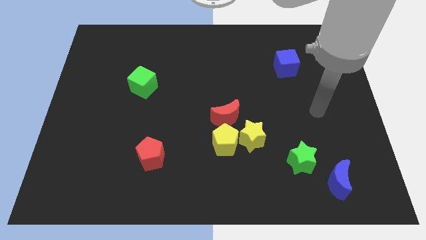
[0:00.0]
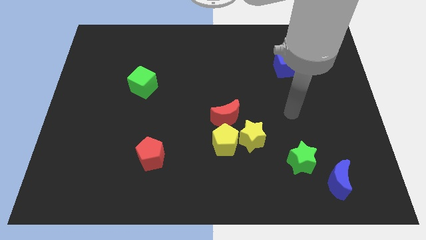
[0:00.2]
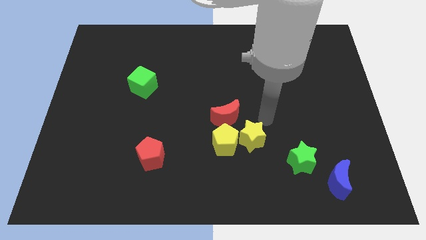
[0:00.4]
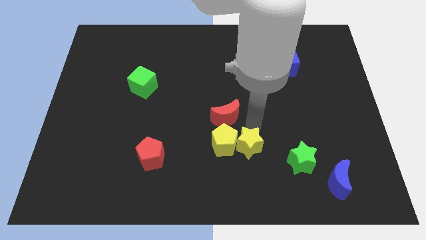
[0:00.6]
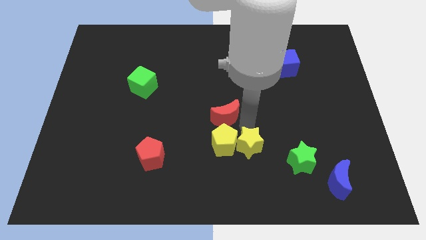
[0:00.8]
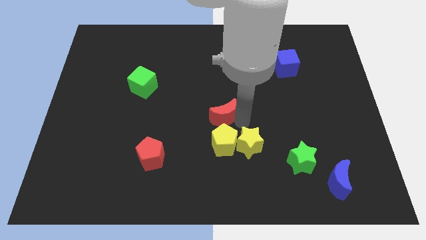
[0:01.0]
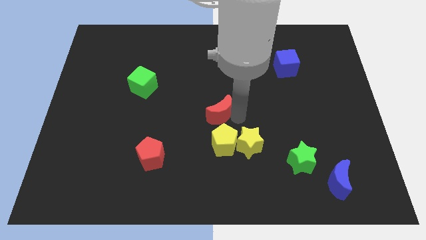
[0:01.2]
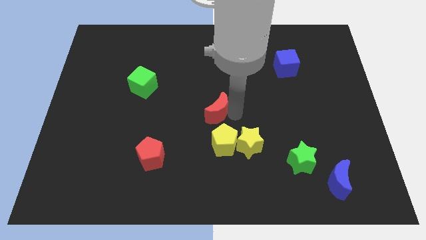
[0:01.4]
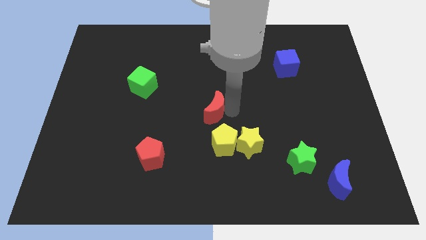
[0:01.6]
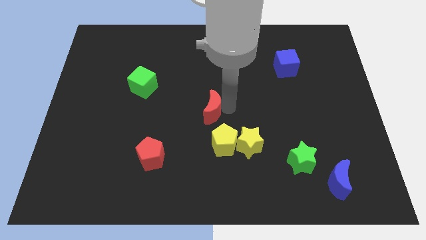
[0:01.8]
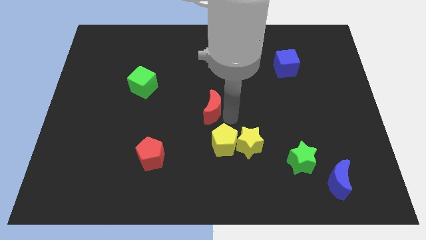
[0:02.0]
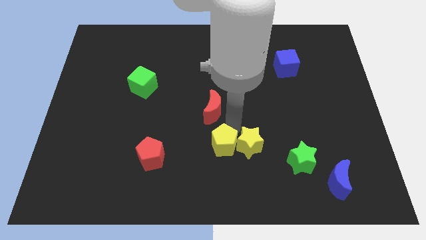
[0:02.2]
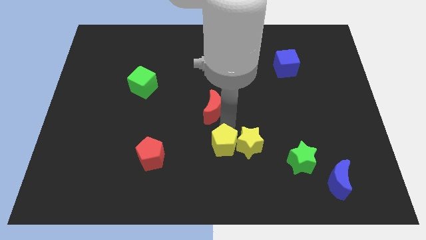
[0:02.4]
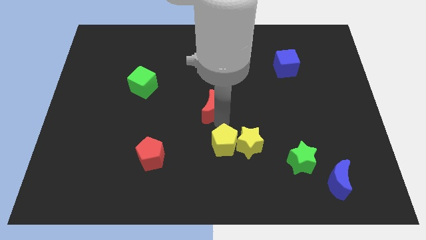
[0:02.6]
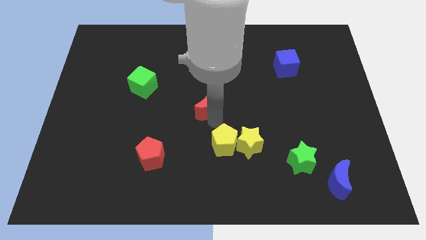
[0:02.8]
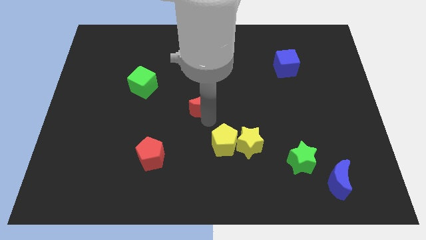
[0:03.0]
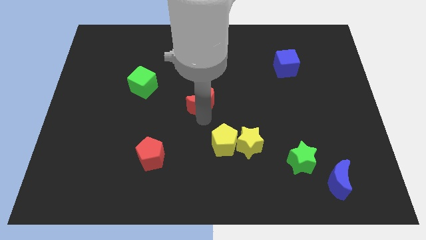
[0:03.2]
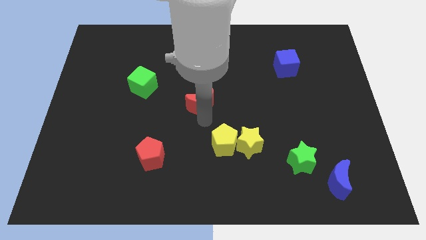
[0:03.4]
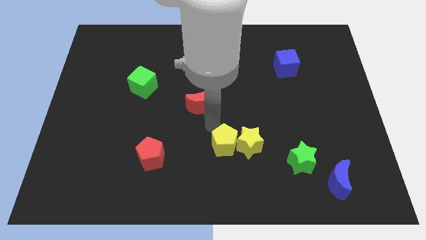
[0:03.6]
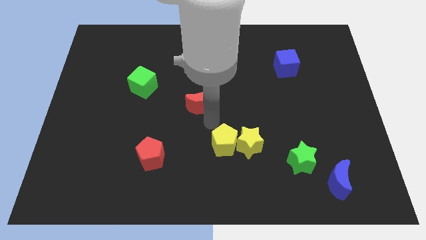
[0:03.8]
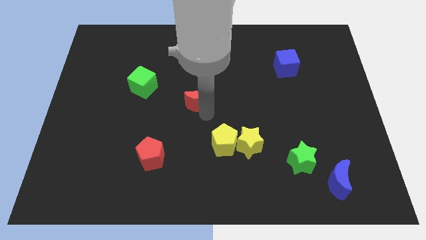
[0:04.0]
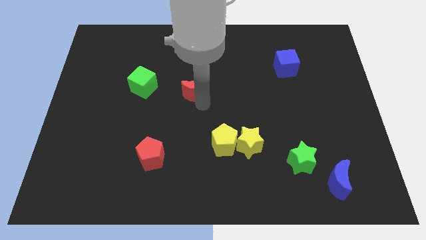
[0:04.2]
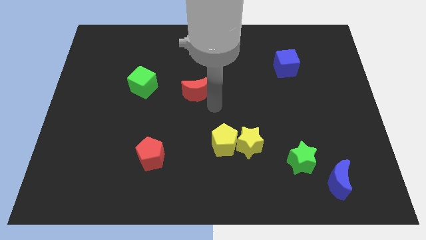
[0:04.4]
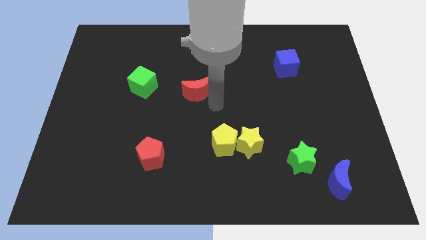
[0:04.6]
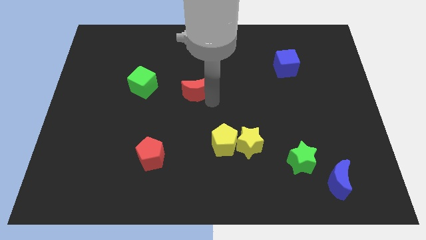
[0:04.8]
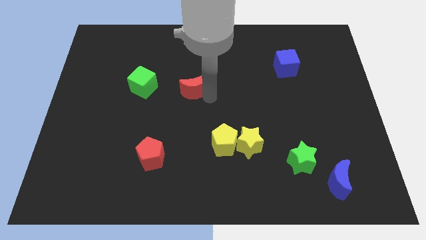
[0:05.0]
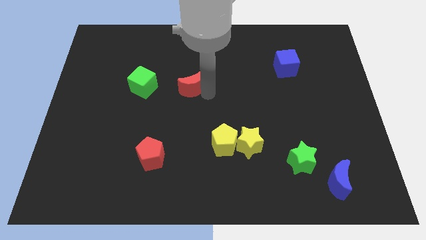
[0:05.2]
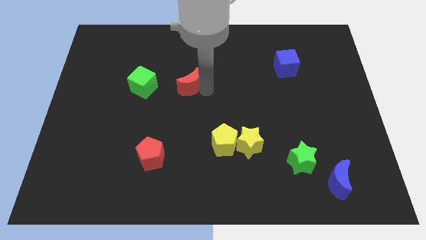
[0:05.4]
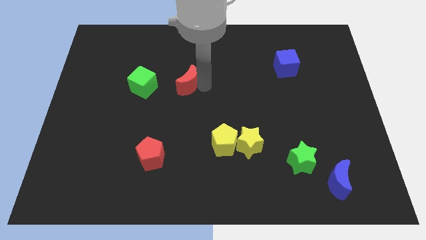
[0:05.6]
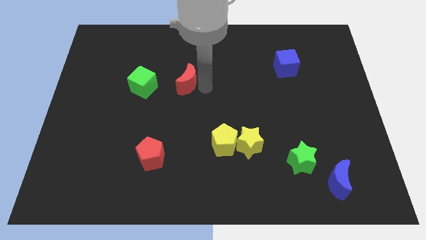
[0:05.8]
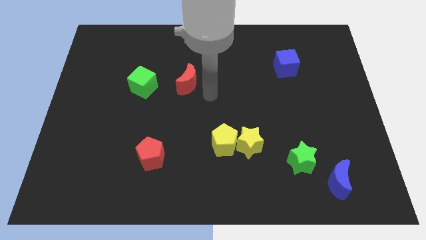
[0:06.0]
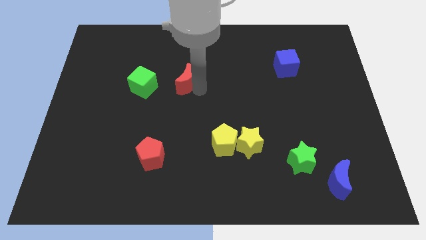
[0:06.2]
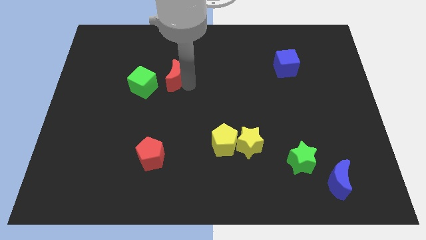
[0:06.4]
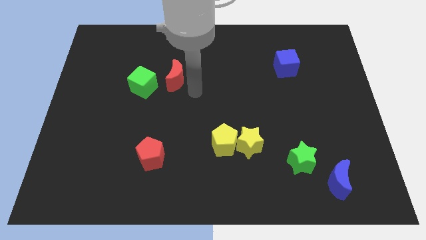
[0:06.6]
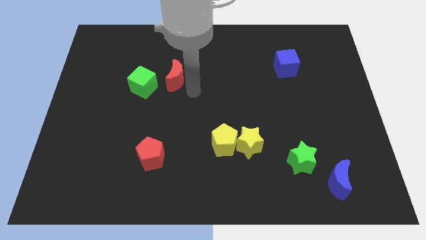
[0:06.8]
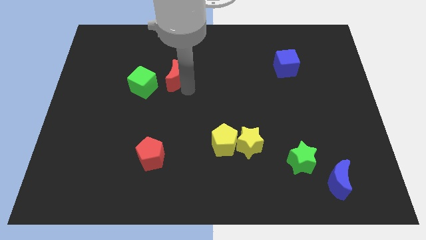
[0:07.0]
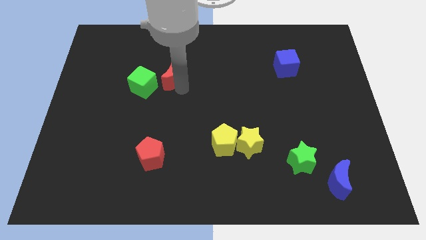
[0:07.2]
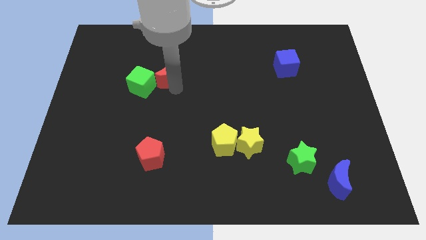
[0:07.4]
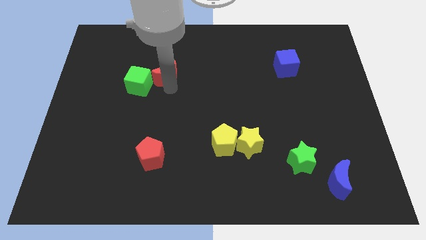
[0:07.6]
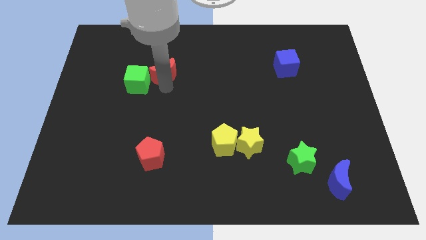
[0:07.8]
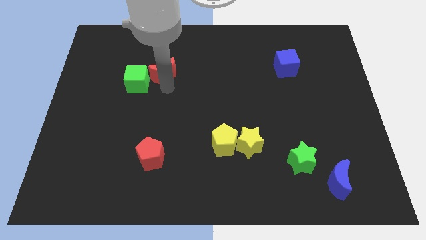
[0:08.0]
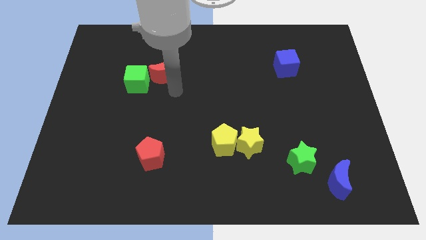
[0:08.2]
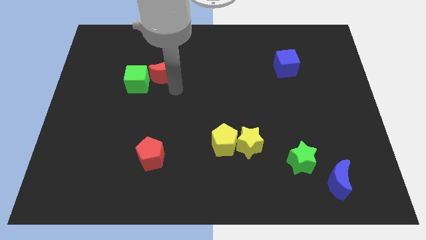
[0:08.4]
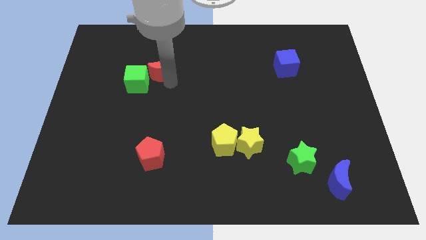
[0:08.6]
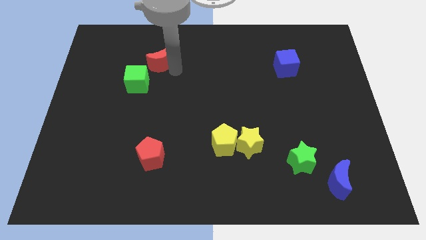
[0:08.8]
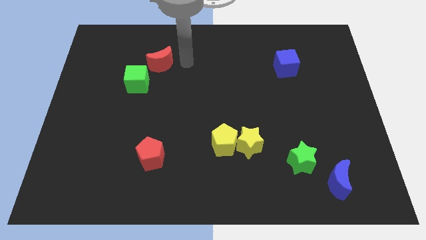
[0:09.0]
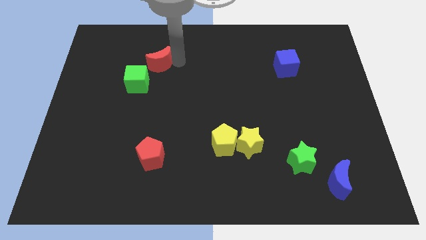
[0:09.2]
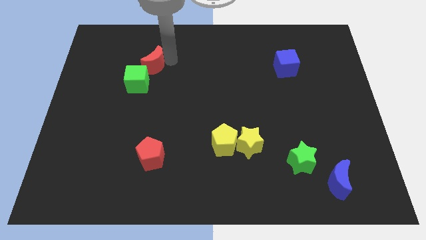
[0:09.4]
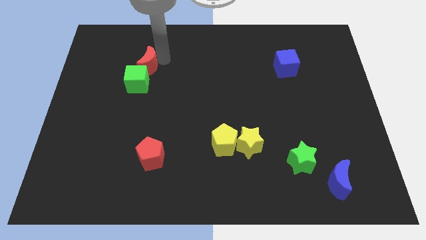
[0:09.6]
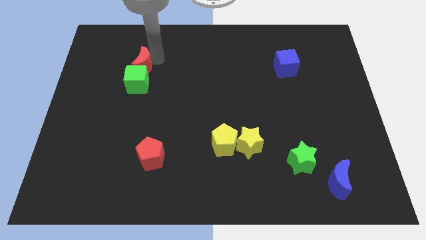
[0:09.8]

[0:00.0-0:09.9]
push the red moon to the top left of the green cube

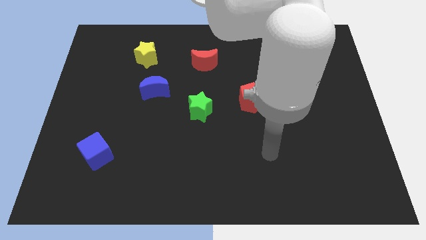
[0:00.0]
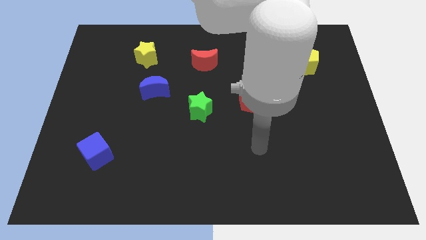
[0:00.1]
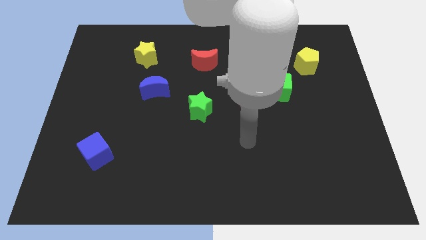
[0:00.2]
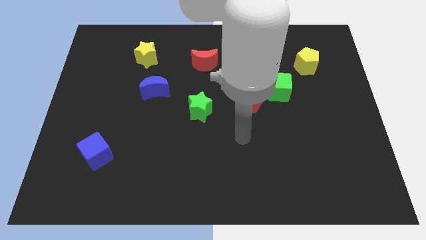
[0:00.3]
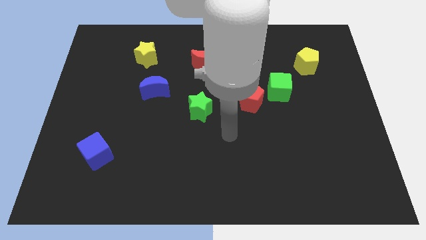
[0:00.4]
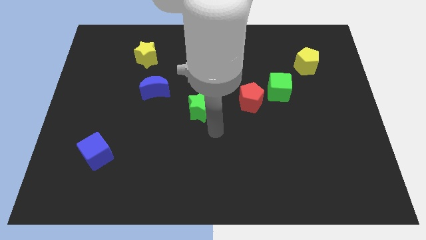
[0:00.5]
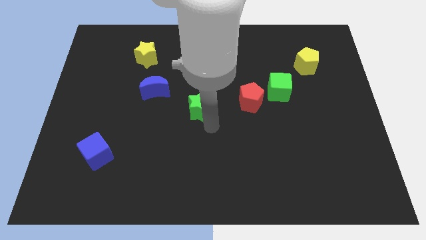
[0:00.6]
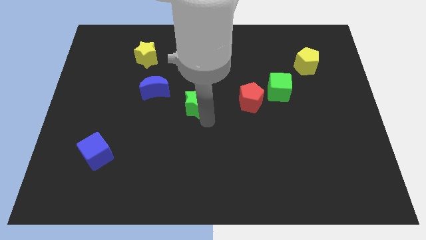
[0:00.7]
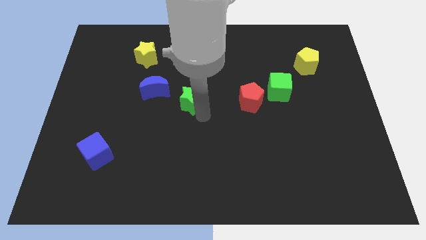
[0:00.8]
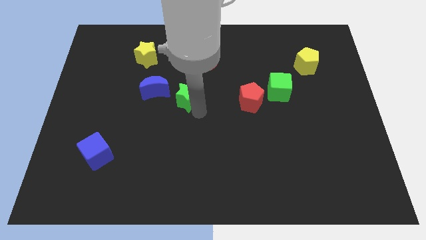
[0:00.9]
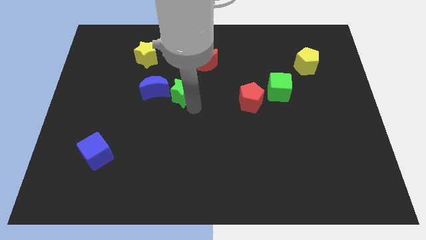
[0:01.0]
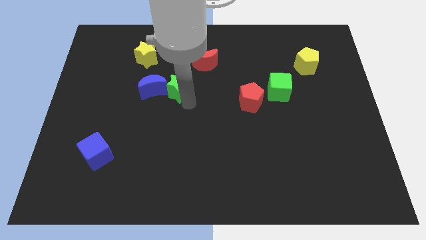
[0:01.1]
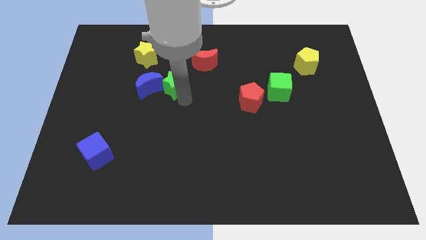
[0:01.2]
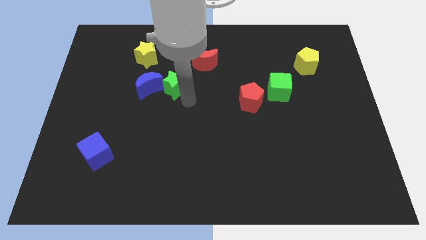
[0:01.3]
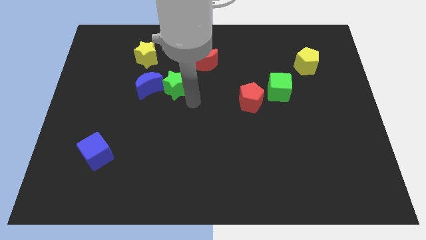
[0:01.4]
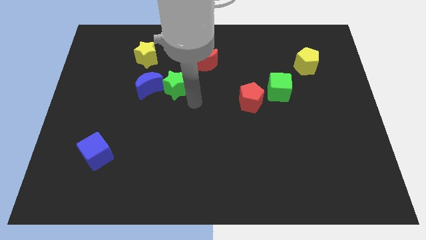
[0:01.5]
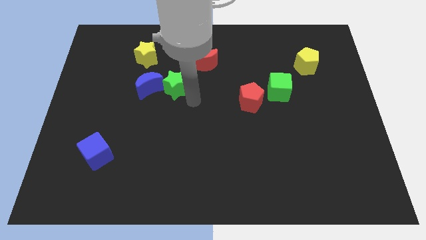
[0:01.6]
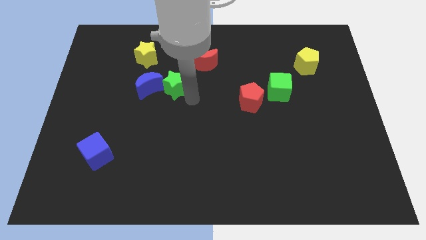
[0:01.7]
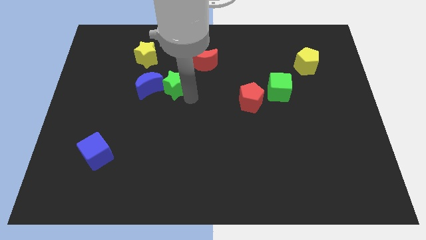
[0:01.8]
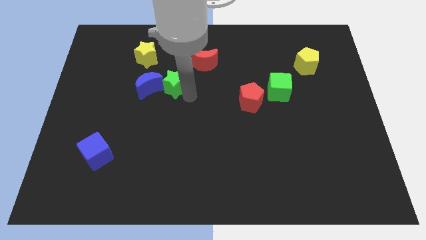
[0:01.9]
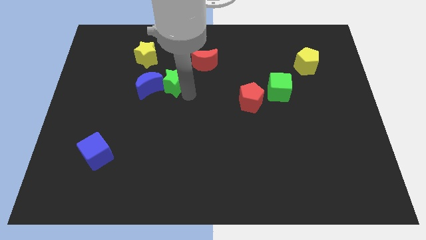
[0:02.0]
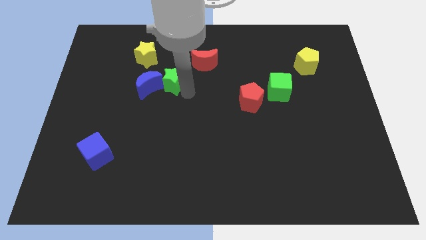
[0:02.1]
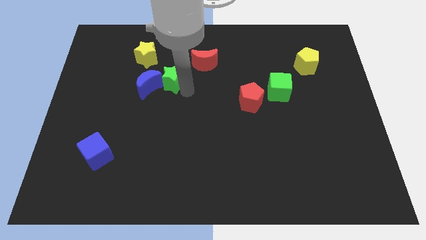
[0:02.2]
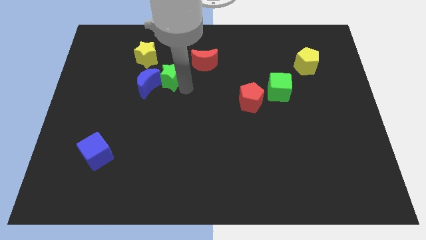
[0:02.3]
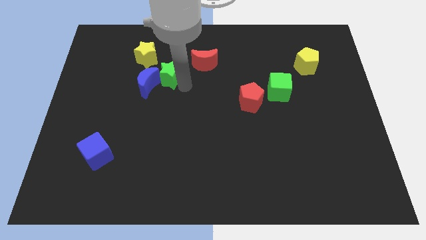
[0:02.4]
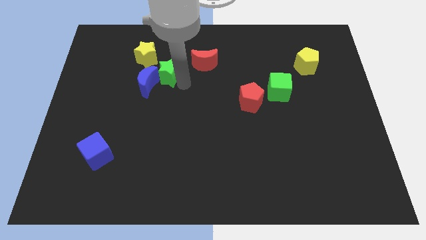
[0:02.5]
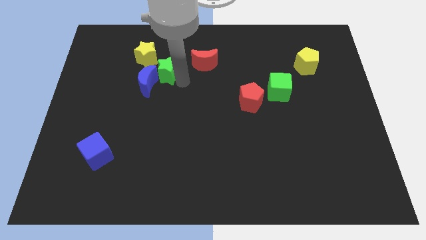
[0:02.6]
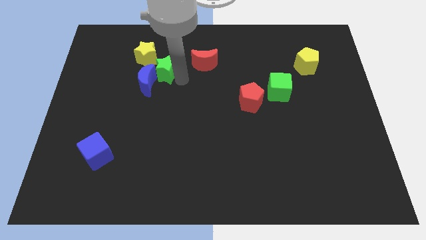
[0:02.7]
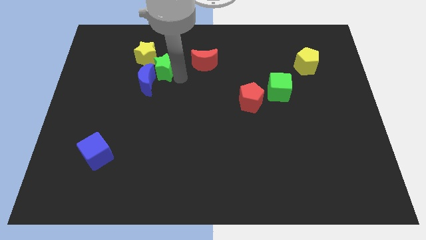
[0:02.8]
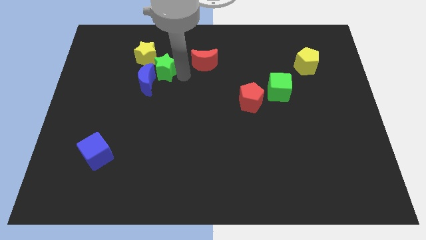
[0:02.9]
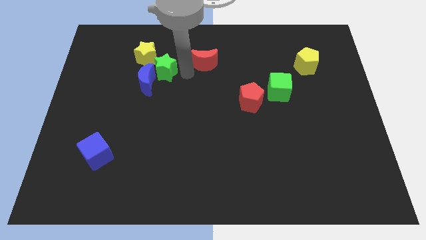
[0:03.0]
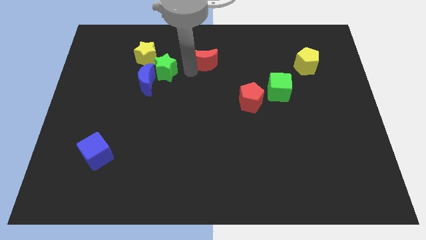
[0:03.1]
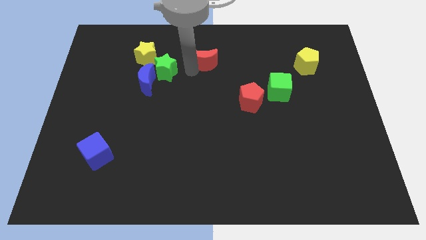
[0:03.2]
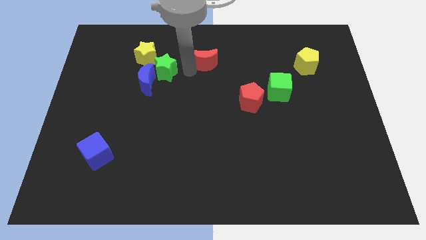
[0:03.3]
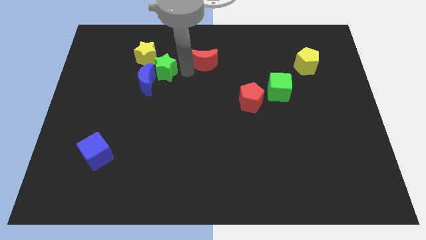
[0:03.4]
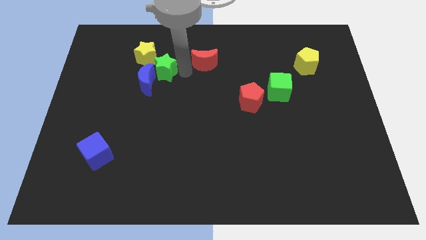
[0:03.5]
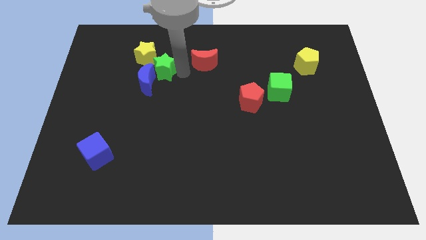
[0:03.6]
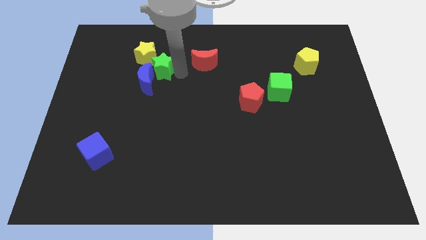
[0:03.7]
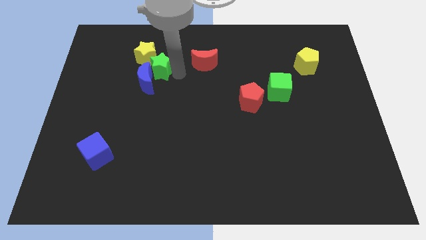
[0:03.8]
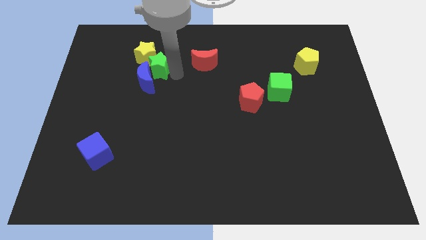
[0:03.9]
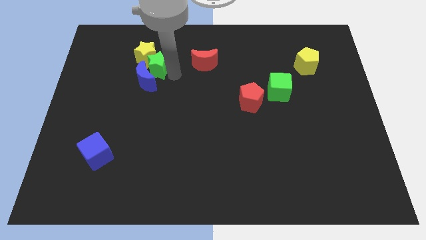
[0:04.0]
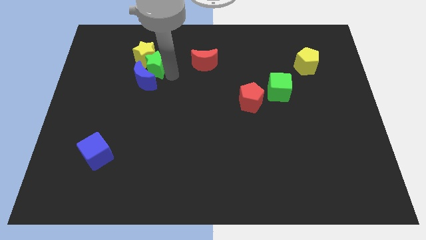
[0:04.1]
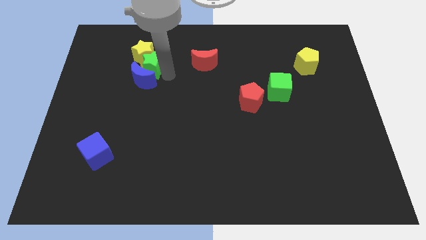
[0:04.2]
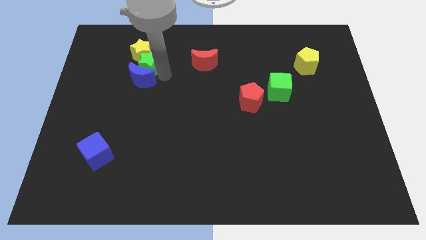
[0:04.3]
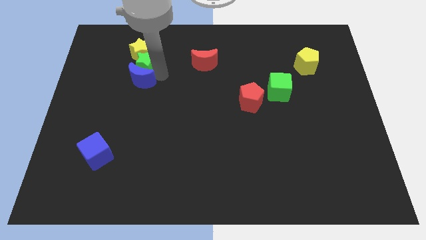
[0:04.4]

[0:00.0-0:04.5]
move the green star to the bottom left of the yellow star
